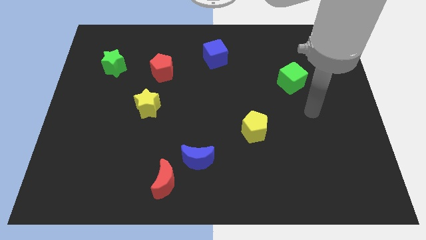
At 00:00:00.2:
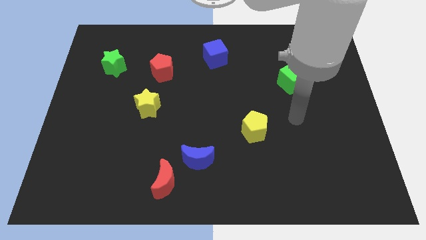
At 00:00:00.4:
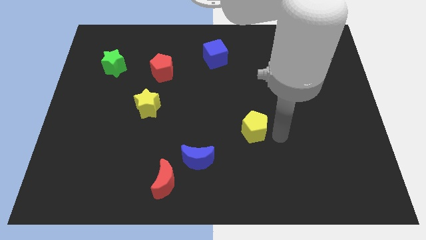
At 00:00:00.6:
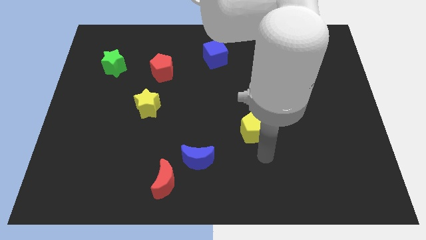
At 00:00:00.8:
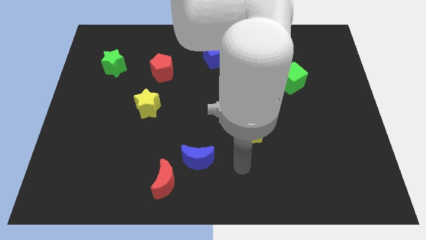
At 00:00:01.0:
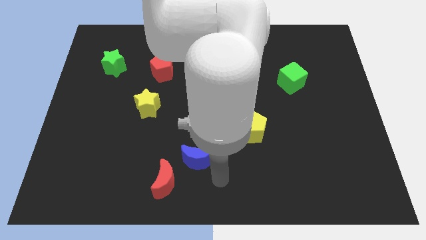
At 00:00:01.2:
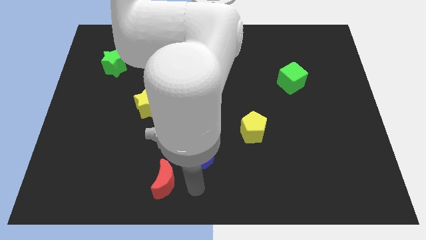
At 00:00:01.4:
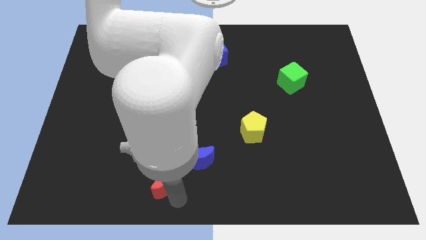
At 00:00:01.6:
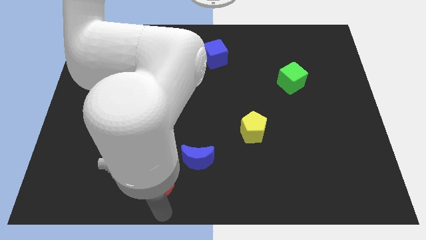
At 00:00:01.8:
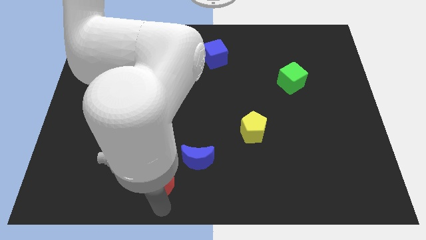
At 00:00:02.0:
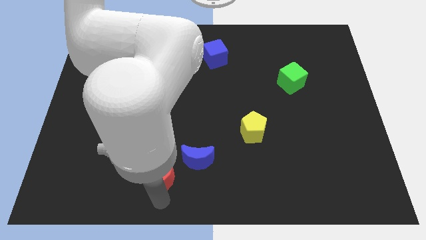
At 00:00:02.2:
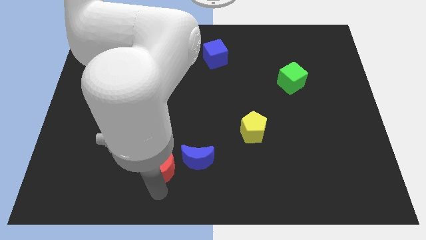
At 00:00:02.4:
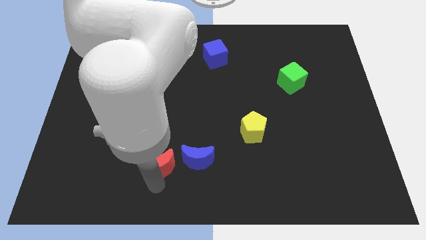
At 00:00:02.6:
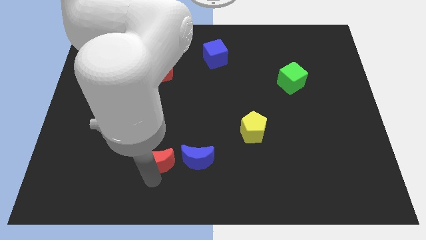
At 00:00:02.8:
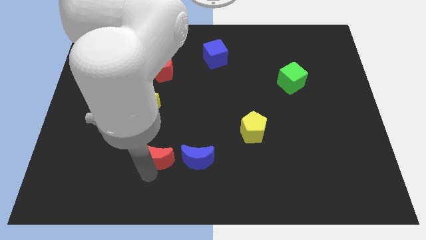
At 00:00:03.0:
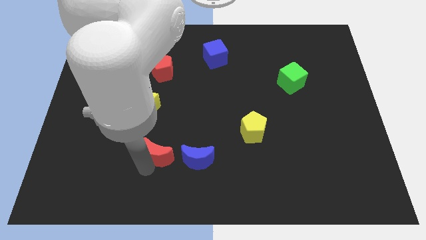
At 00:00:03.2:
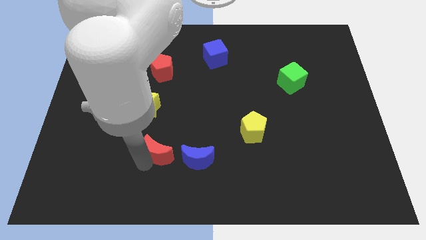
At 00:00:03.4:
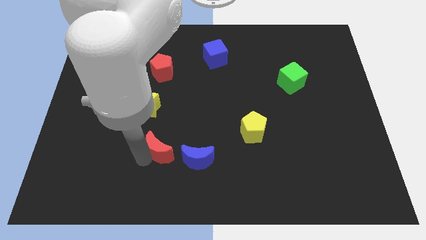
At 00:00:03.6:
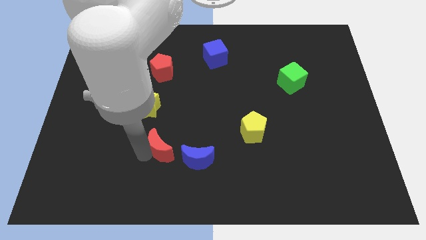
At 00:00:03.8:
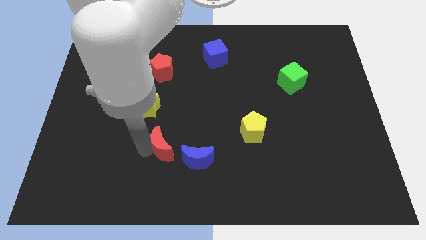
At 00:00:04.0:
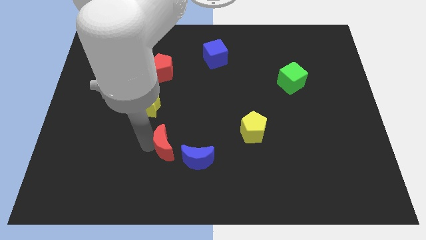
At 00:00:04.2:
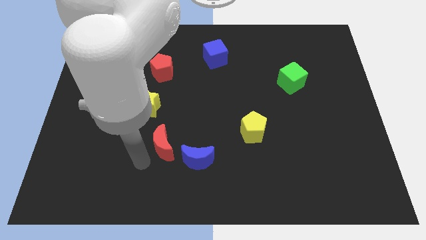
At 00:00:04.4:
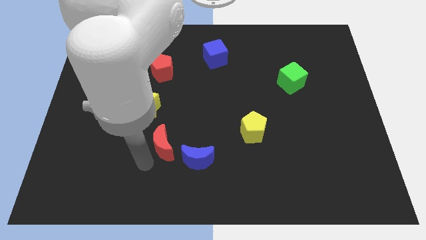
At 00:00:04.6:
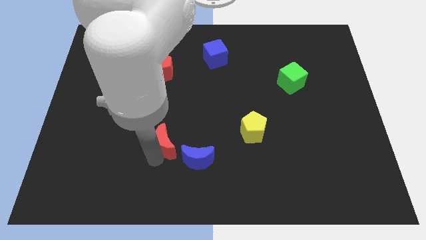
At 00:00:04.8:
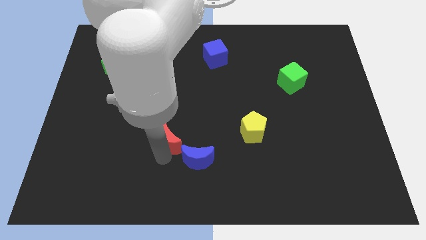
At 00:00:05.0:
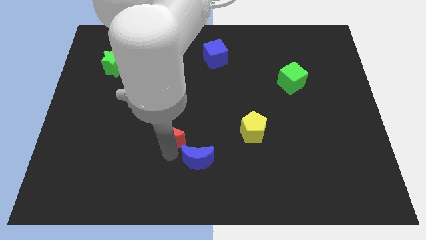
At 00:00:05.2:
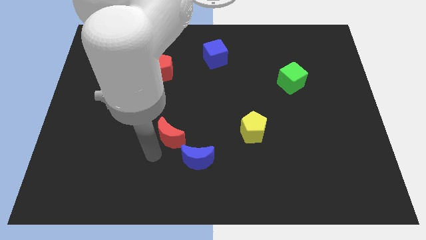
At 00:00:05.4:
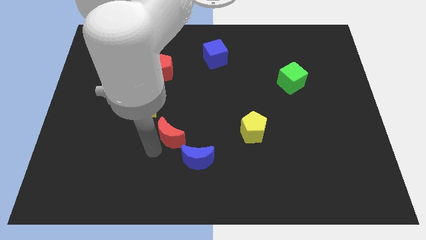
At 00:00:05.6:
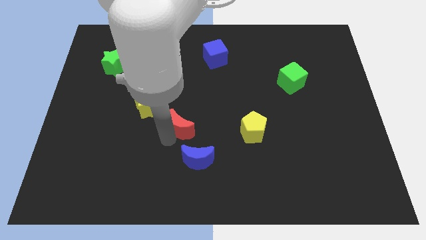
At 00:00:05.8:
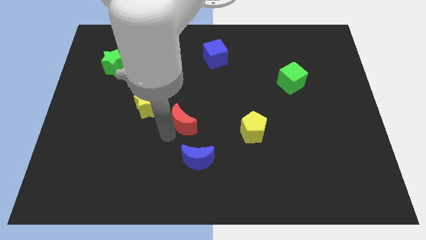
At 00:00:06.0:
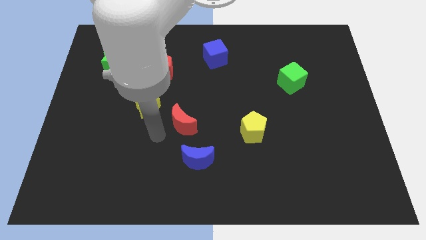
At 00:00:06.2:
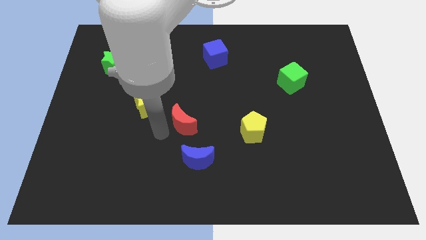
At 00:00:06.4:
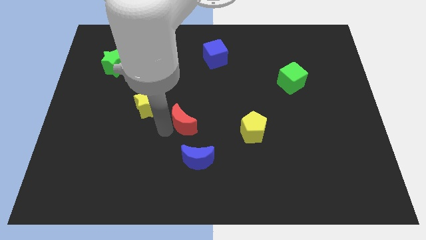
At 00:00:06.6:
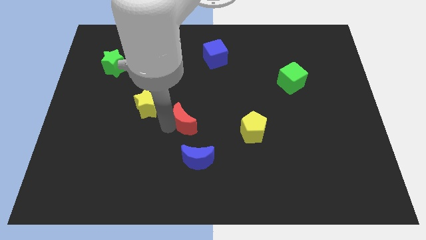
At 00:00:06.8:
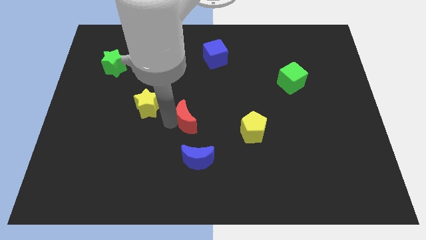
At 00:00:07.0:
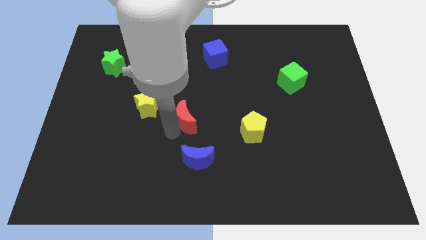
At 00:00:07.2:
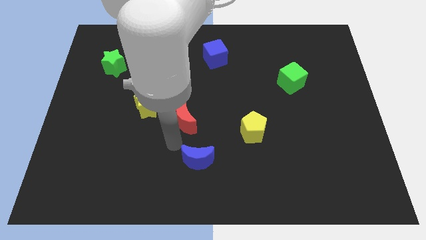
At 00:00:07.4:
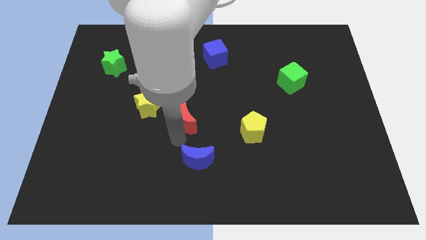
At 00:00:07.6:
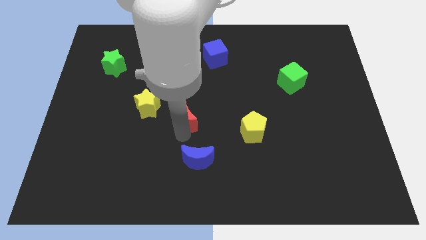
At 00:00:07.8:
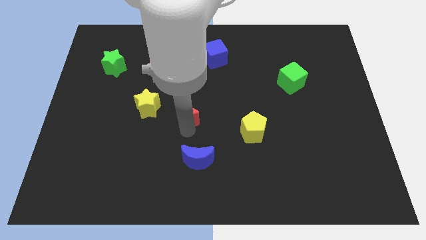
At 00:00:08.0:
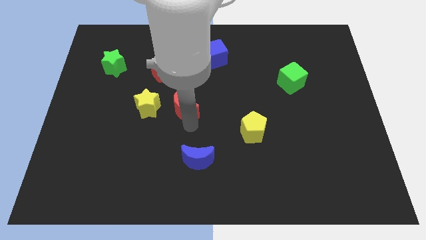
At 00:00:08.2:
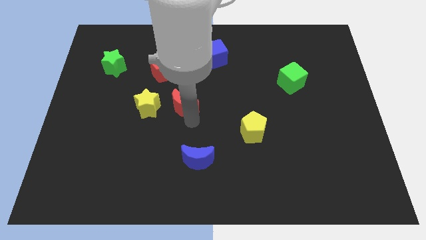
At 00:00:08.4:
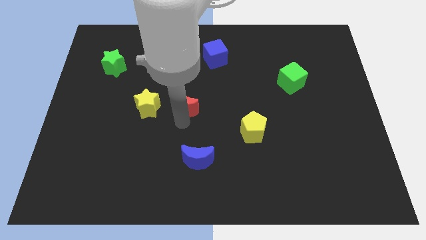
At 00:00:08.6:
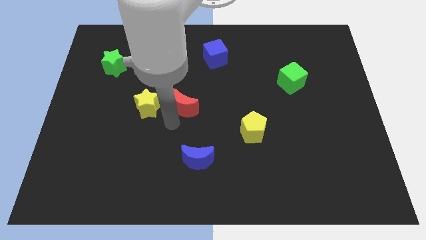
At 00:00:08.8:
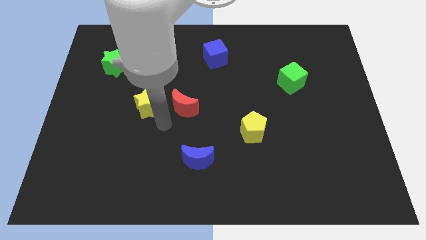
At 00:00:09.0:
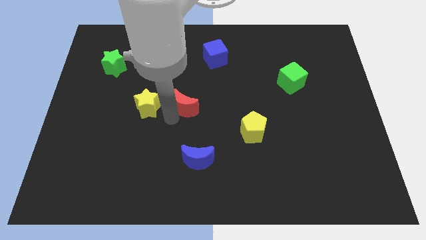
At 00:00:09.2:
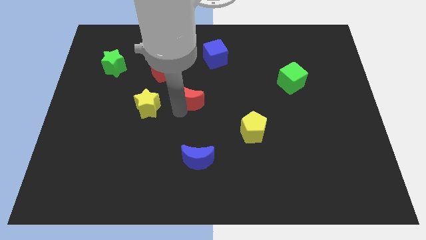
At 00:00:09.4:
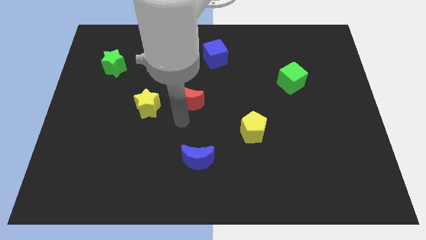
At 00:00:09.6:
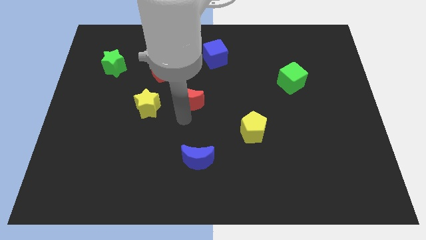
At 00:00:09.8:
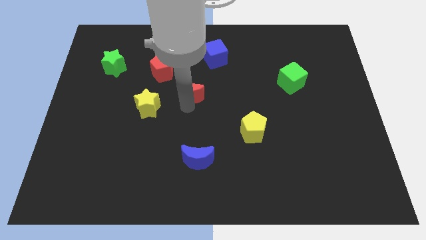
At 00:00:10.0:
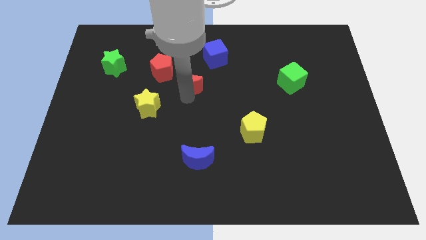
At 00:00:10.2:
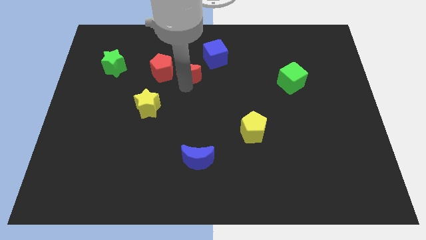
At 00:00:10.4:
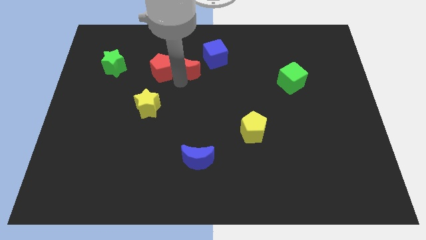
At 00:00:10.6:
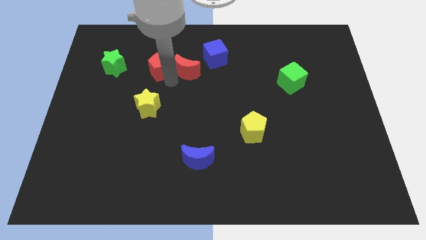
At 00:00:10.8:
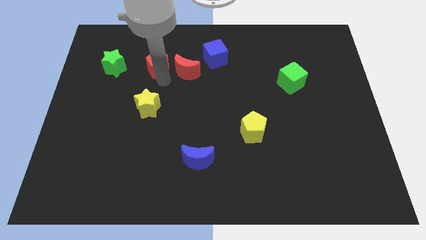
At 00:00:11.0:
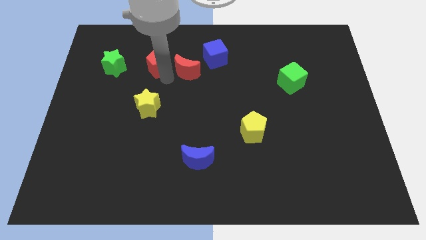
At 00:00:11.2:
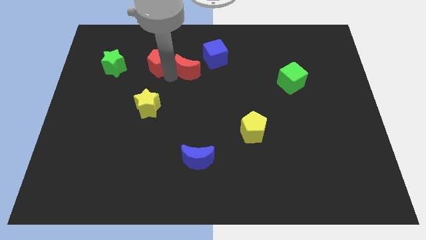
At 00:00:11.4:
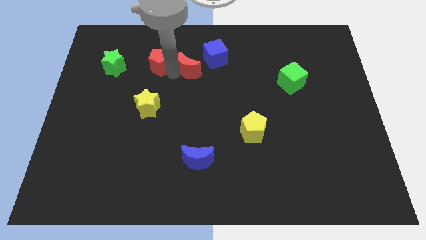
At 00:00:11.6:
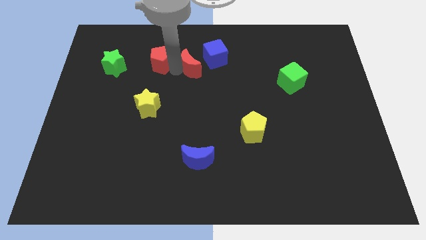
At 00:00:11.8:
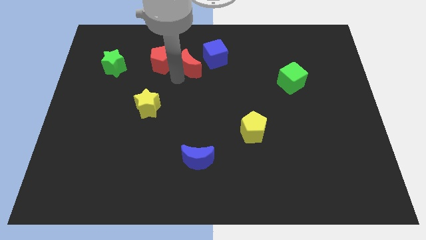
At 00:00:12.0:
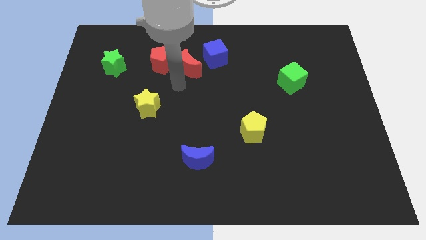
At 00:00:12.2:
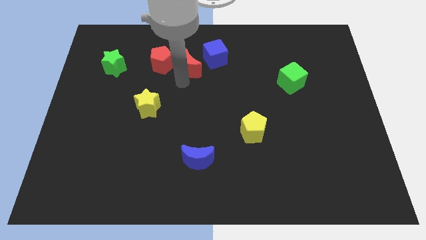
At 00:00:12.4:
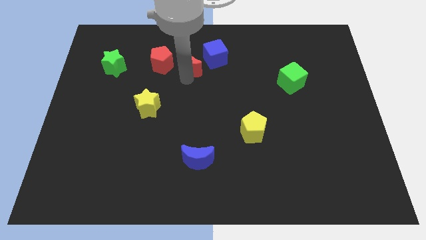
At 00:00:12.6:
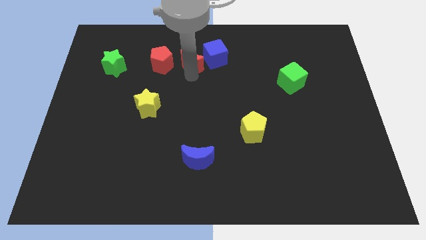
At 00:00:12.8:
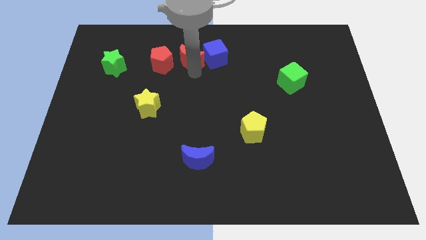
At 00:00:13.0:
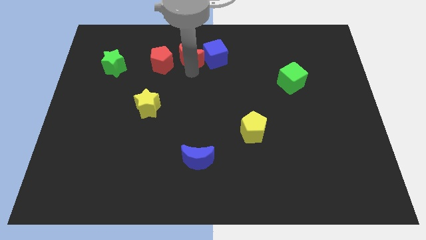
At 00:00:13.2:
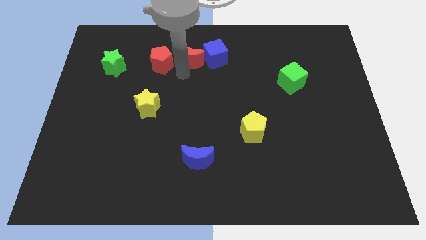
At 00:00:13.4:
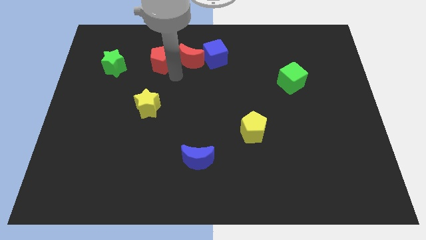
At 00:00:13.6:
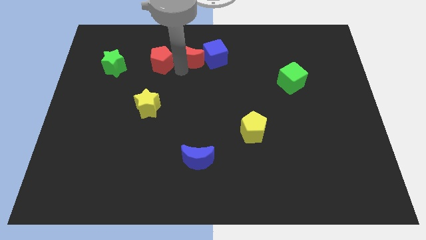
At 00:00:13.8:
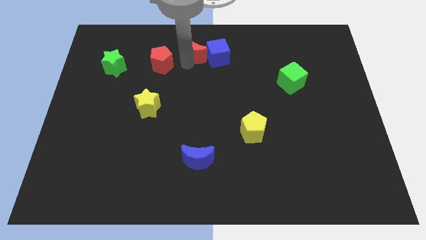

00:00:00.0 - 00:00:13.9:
push the red moon to the towards your base
